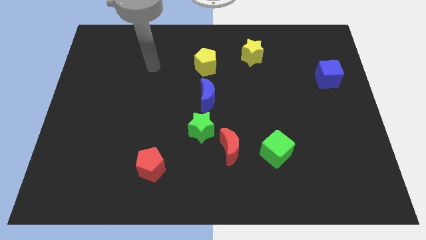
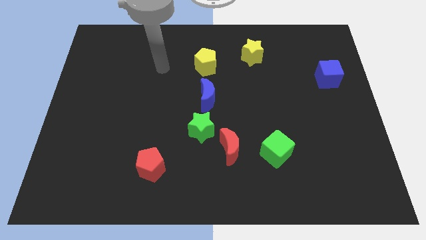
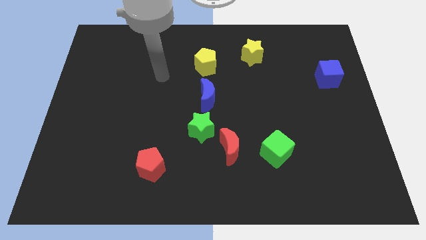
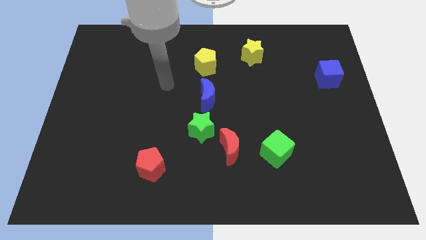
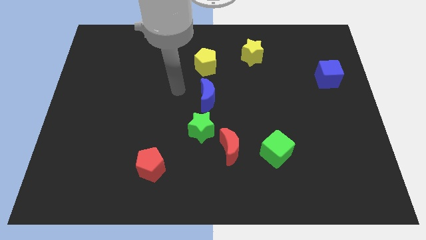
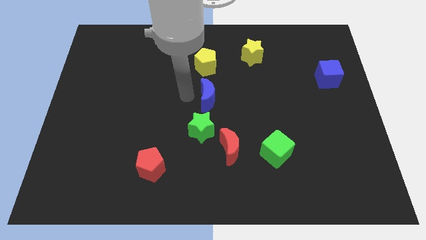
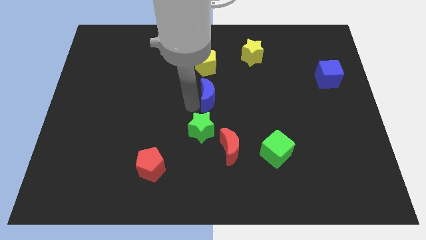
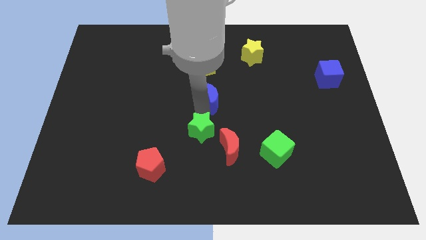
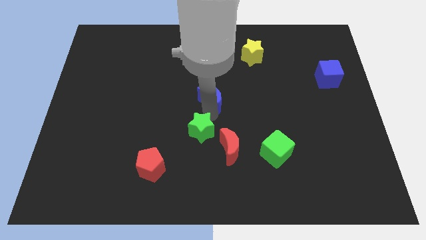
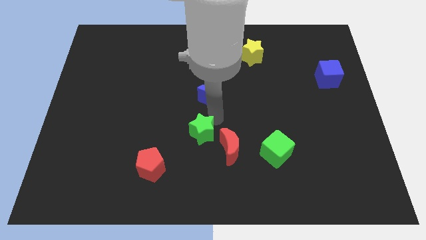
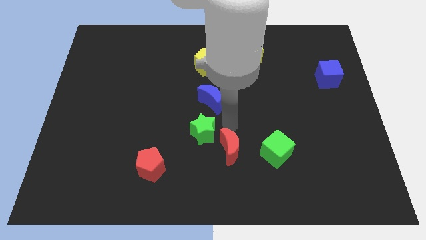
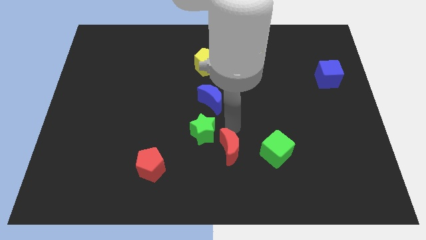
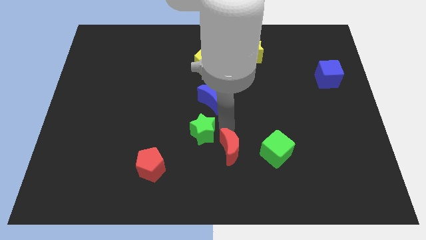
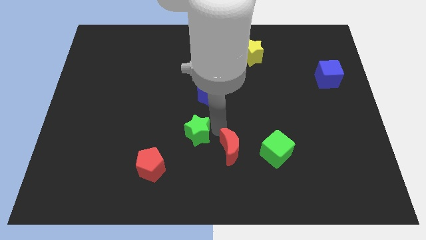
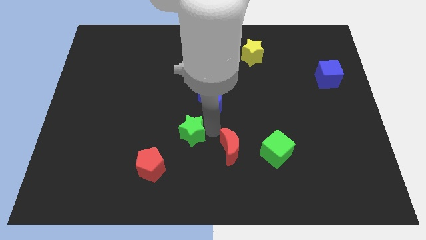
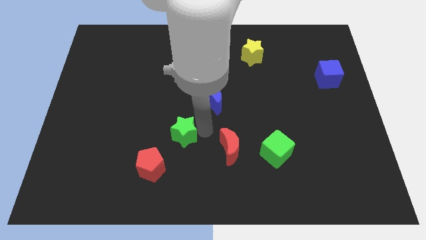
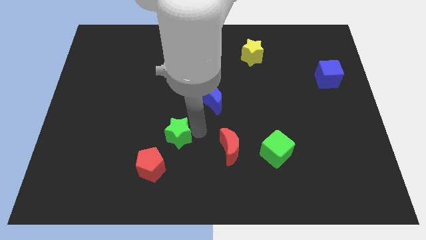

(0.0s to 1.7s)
pull the green star apart from the red moon and blue moon

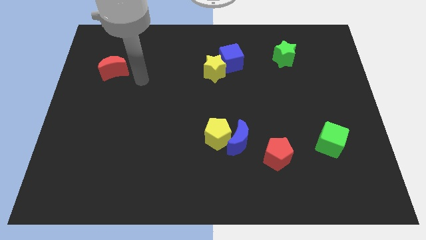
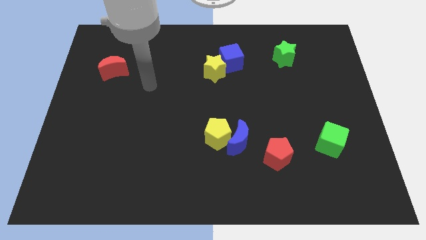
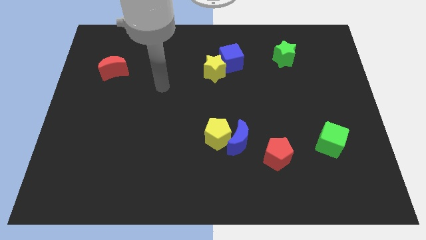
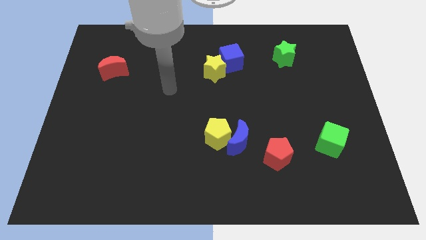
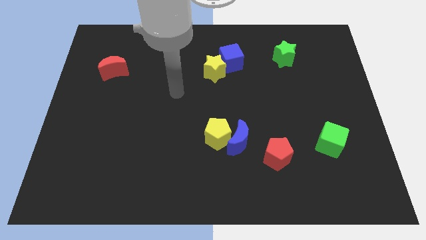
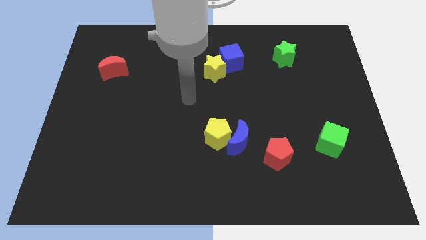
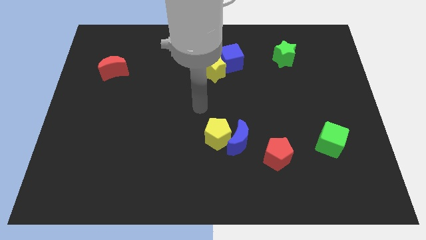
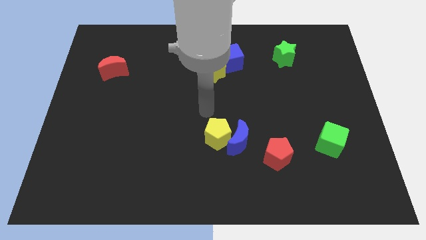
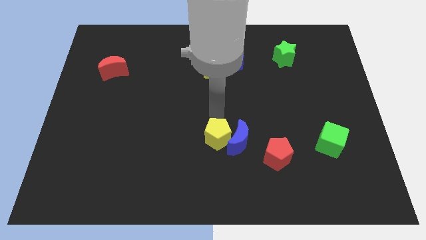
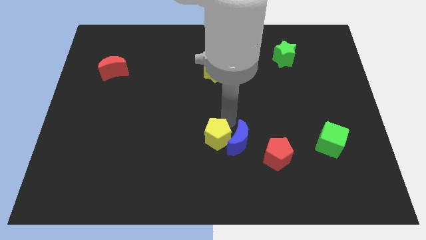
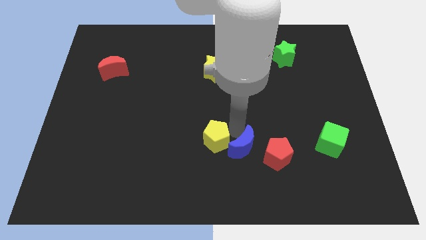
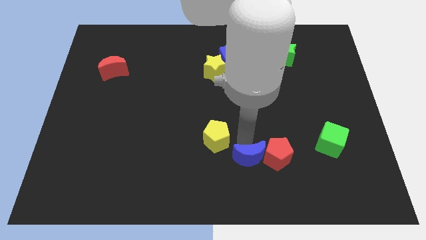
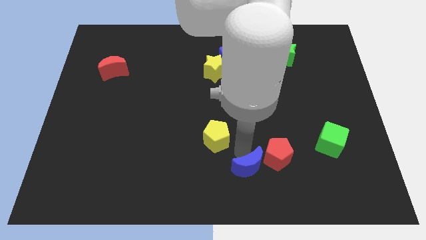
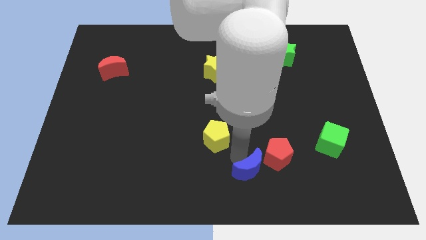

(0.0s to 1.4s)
separate the yellow pentagon from the blue moon

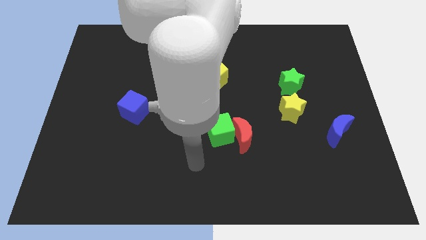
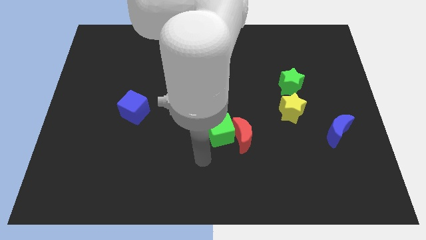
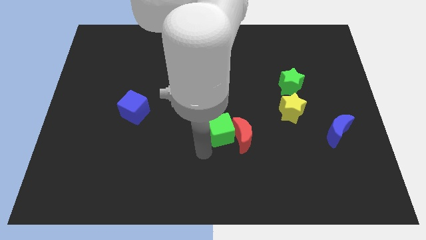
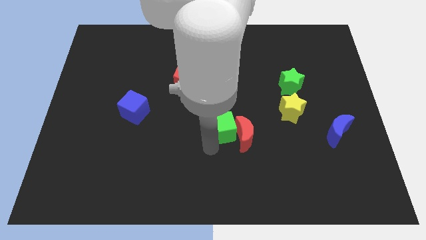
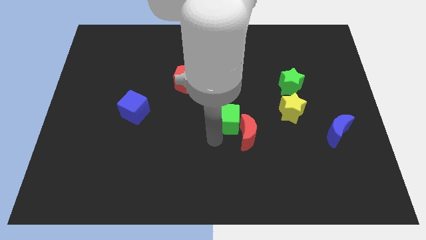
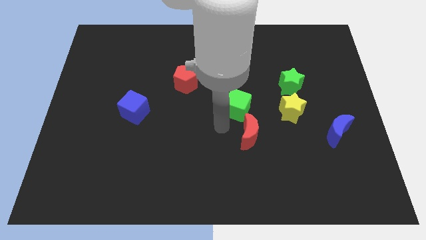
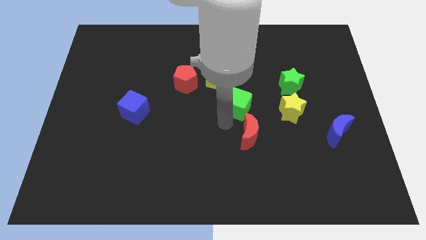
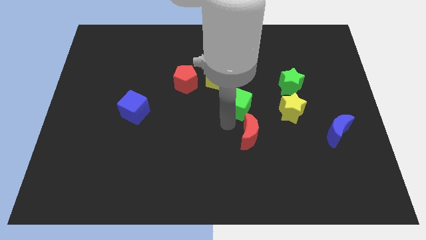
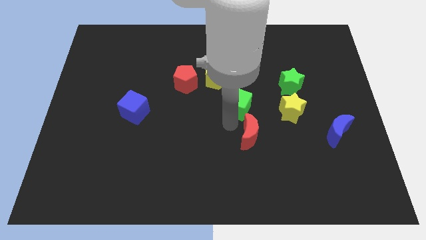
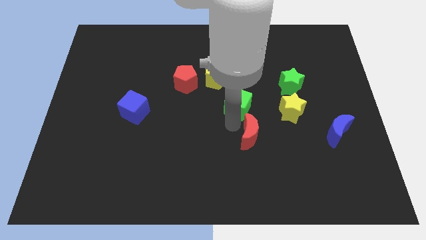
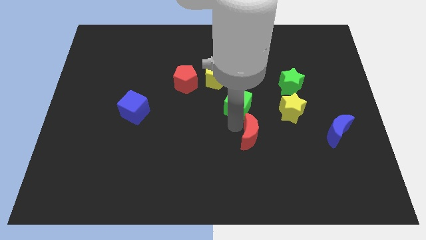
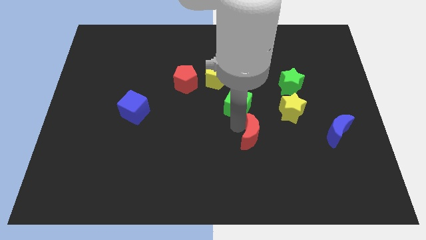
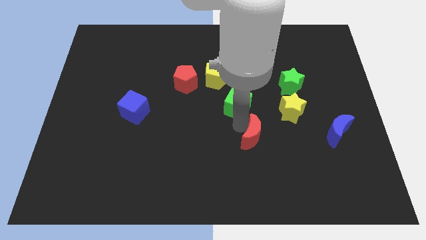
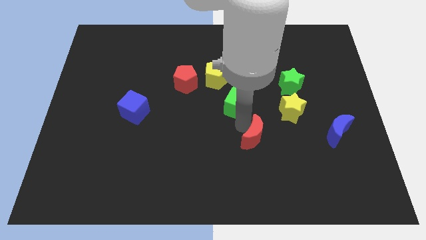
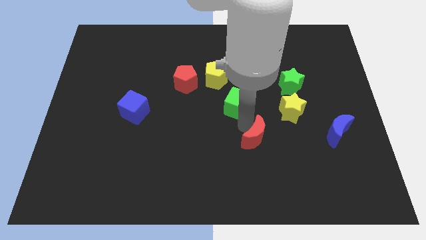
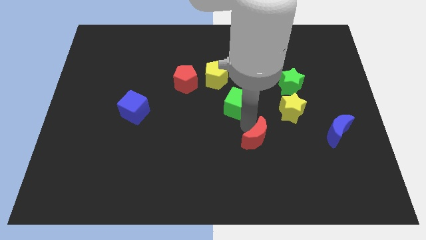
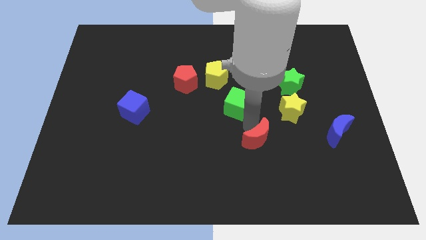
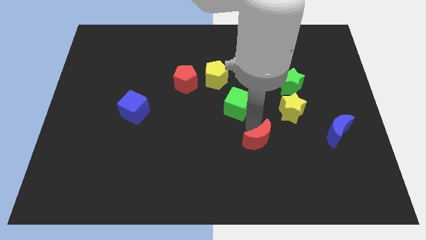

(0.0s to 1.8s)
move the red moon away from the green cube

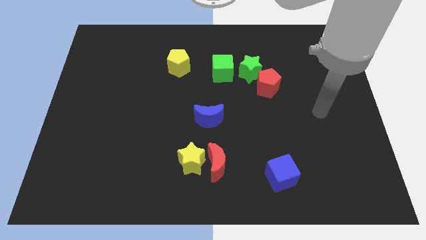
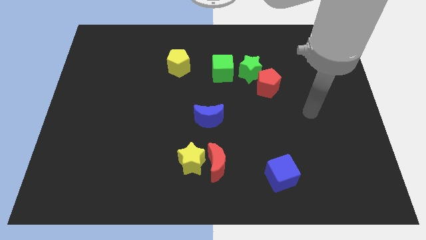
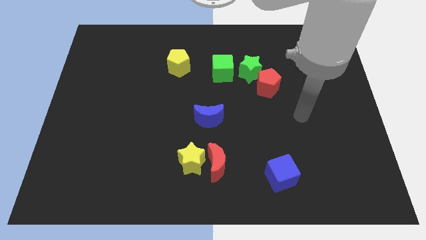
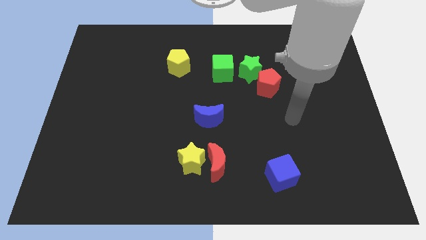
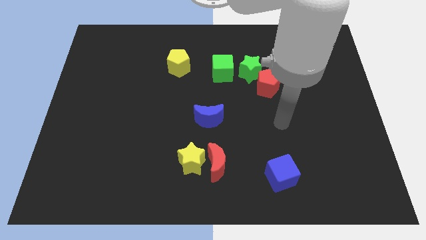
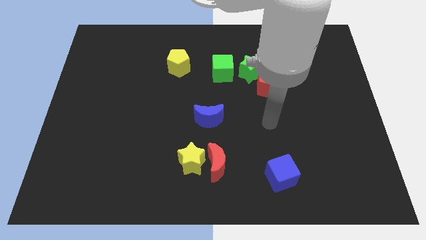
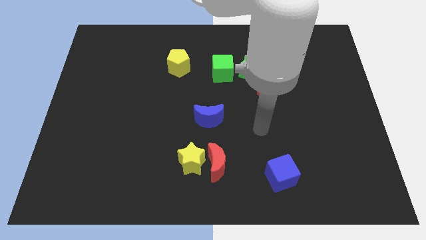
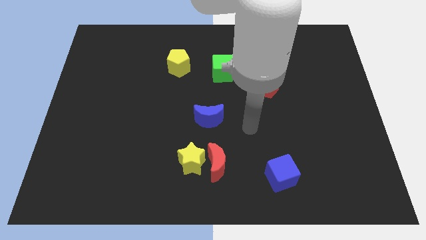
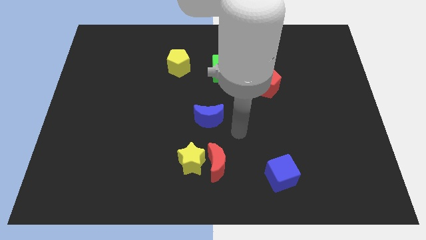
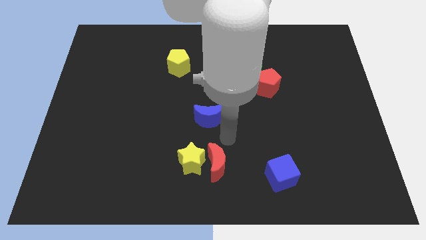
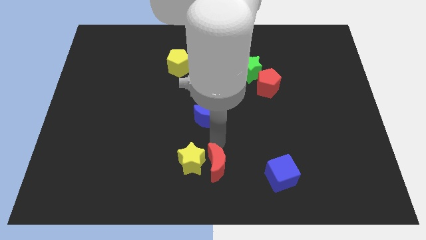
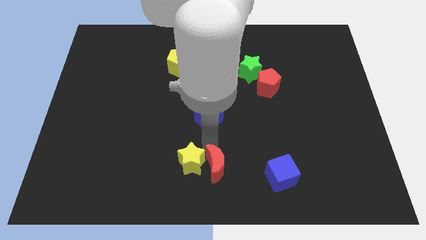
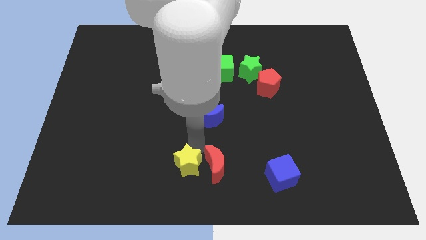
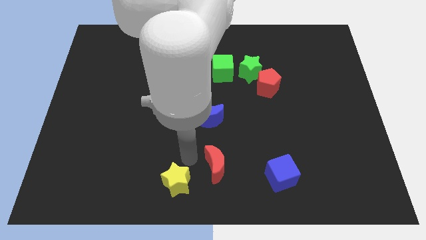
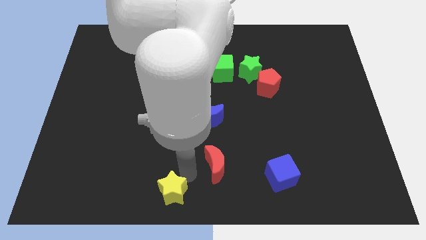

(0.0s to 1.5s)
move the red moon away from the yellow star

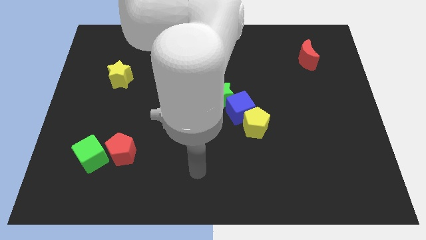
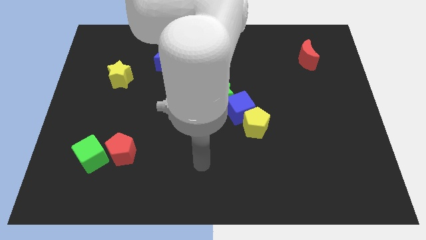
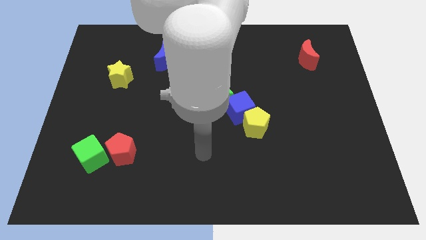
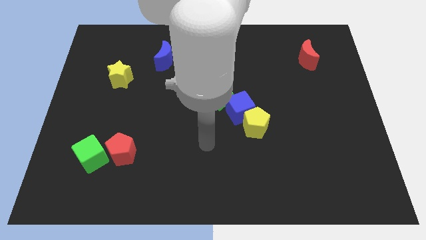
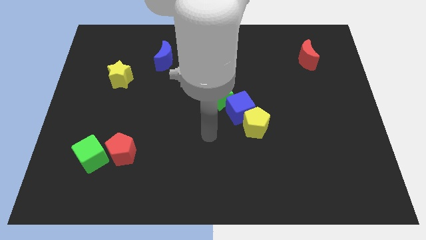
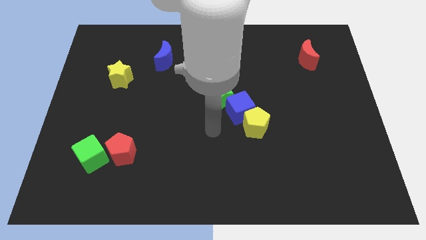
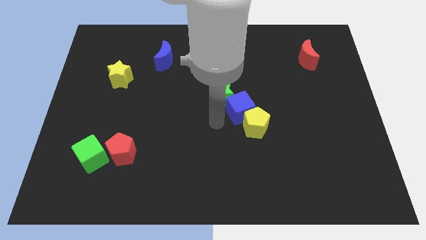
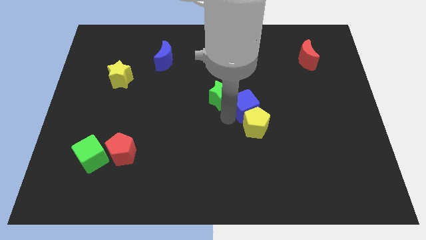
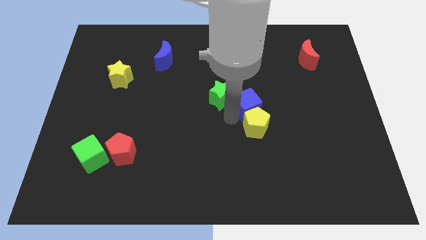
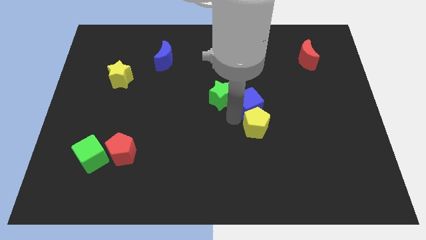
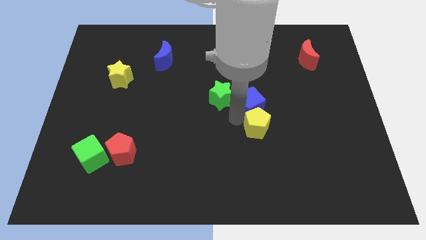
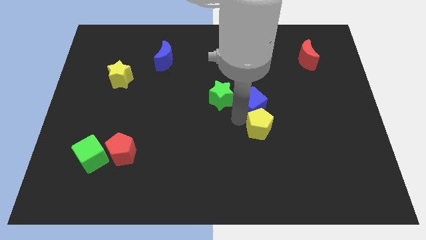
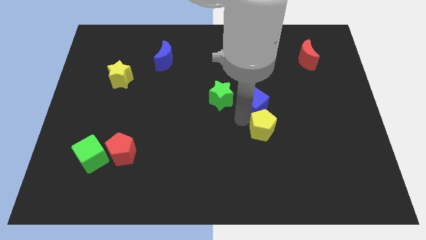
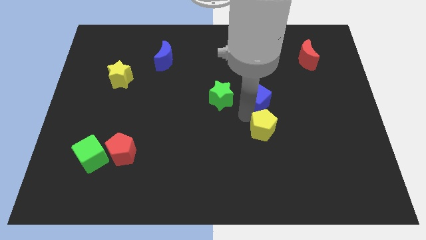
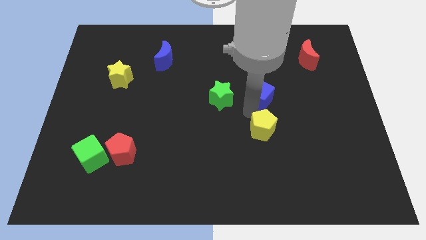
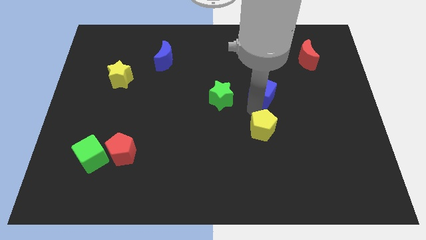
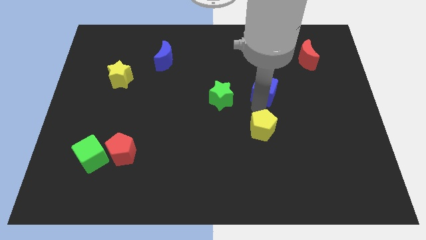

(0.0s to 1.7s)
separate the yellow pentagon from the blue cube

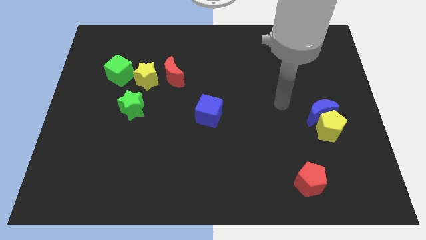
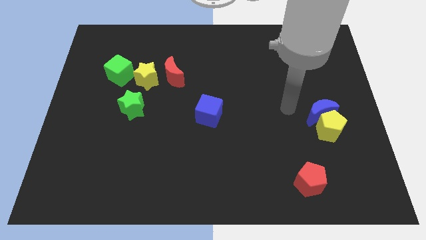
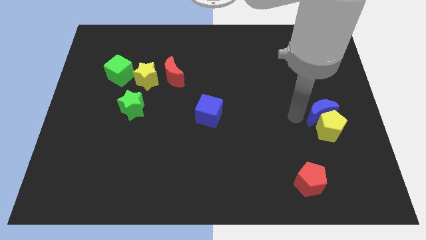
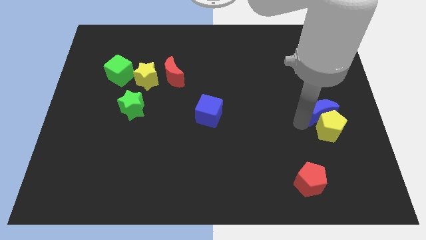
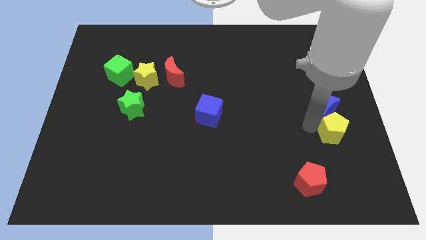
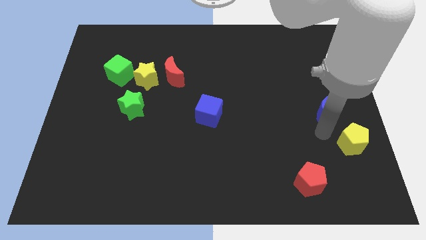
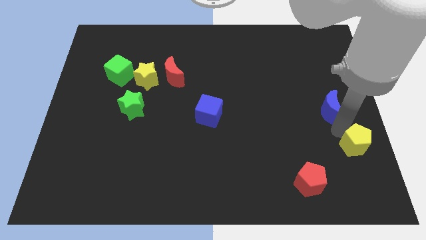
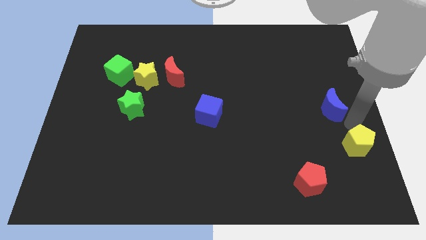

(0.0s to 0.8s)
move the blue moon away from the yellow pentagon

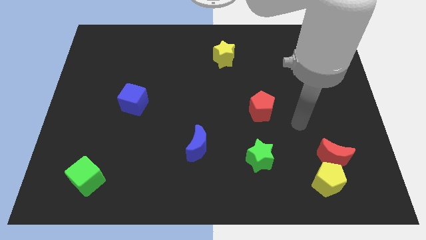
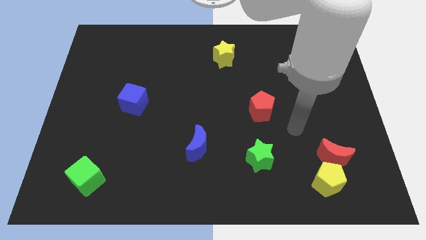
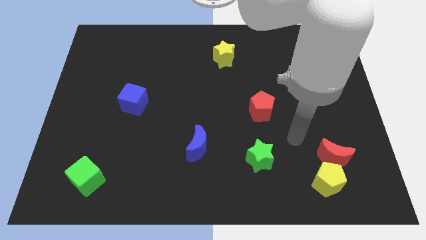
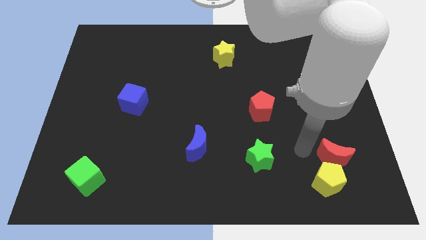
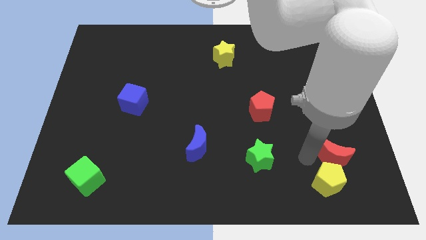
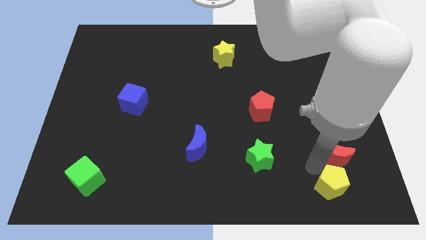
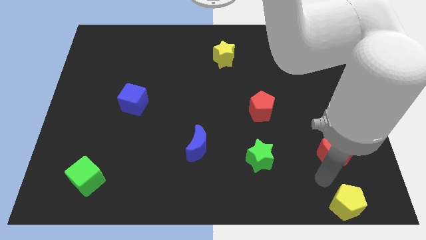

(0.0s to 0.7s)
move the red moon away from the yellow pentagon
